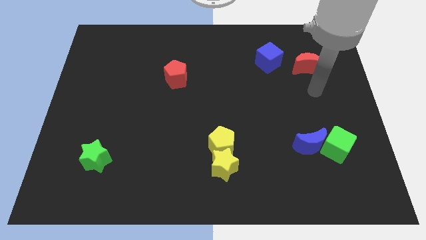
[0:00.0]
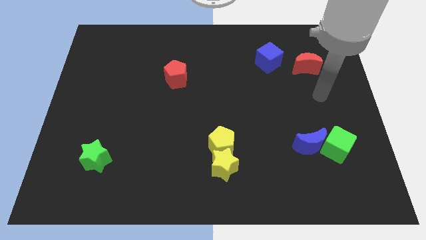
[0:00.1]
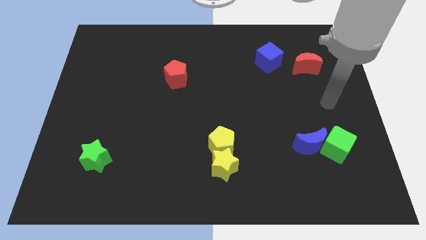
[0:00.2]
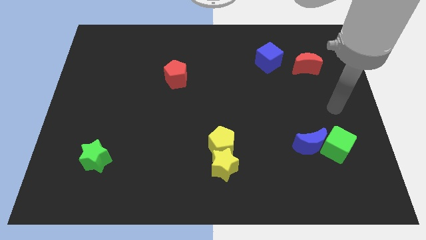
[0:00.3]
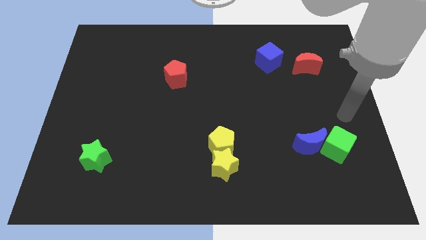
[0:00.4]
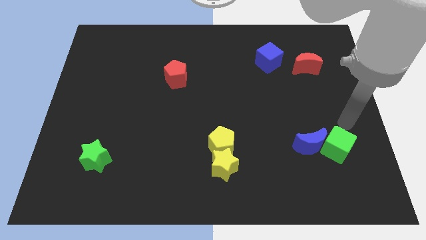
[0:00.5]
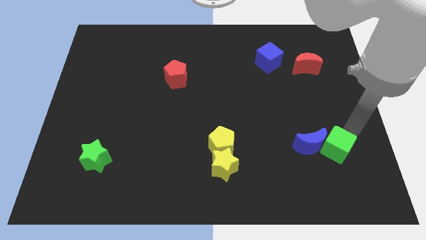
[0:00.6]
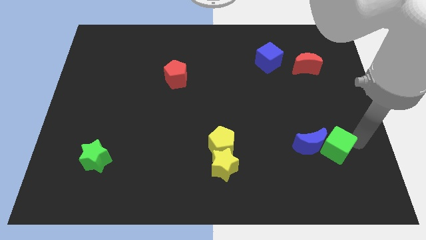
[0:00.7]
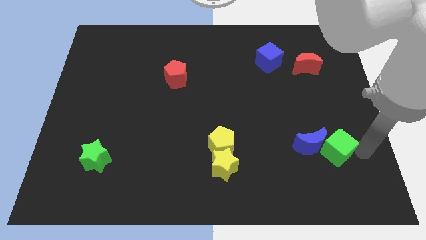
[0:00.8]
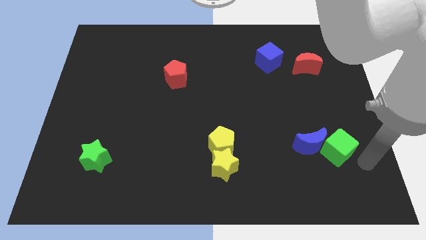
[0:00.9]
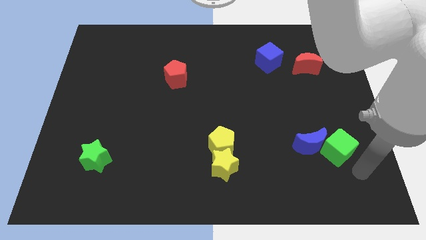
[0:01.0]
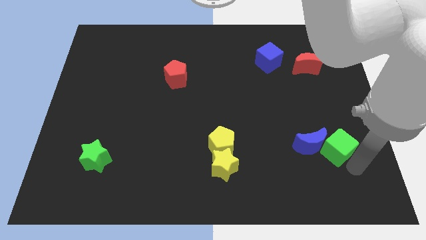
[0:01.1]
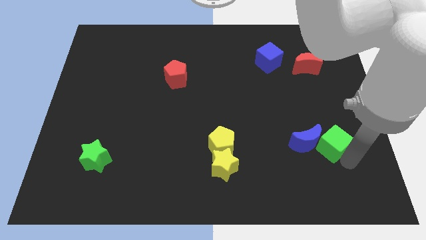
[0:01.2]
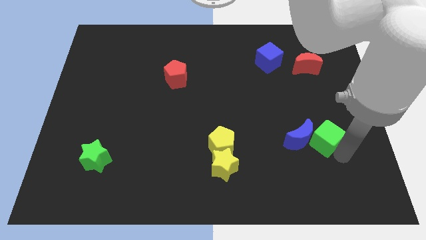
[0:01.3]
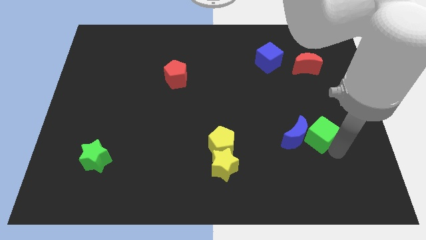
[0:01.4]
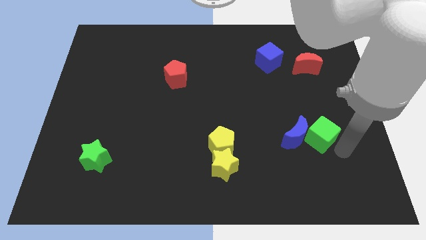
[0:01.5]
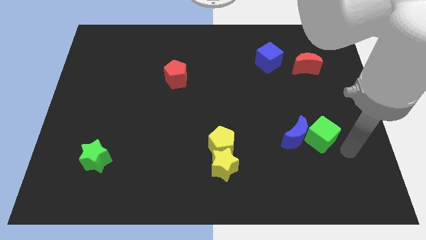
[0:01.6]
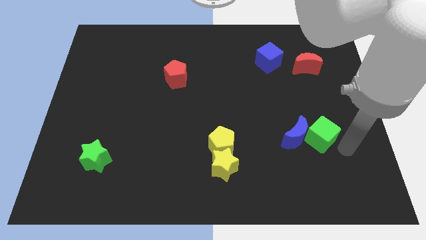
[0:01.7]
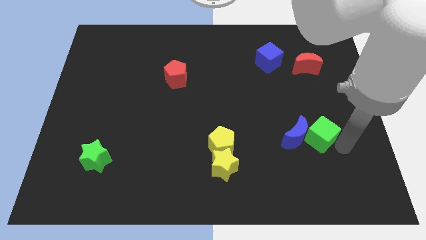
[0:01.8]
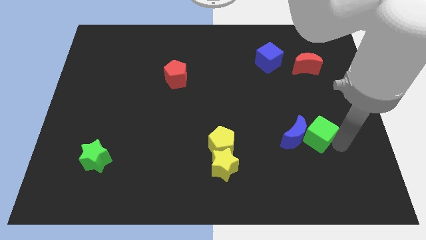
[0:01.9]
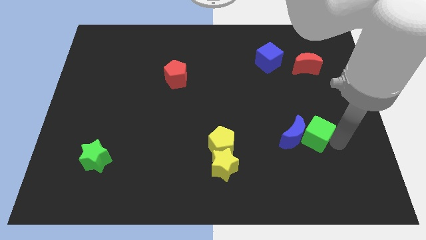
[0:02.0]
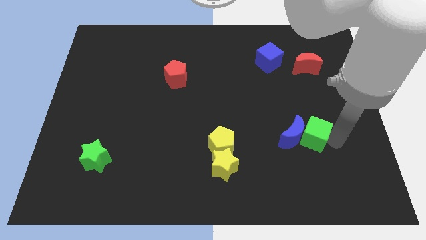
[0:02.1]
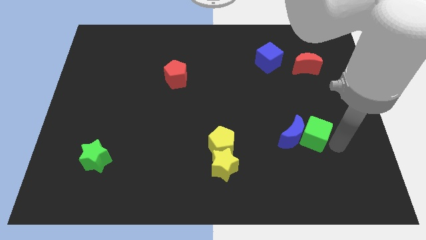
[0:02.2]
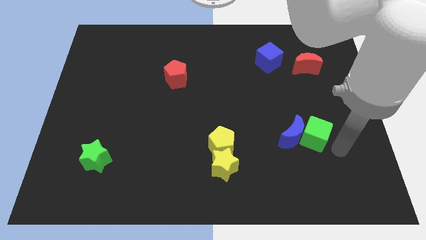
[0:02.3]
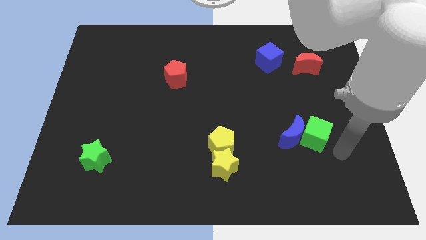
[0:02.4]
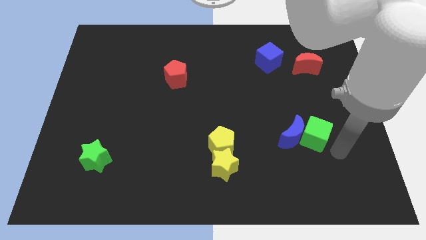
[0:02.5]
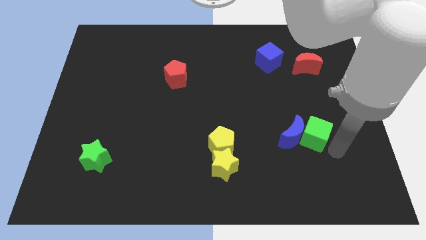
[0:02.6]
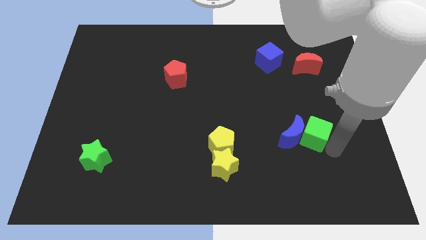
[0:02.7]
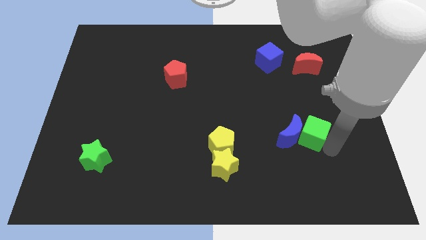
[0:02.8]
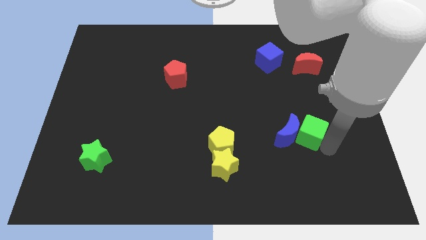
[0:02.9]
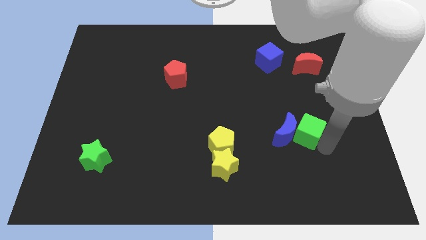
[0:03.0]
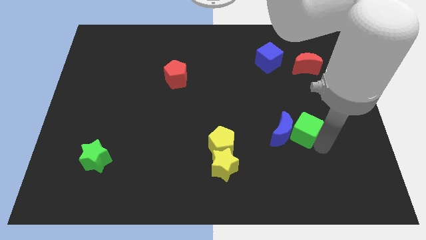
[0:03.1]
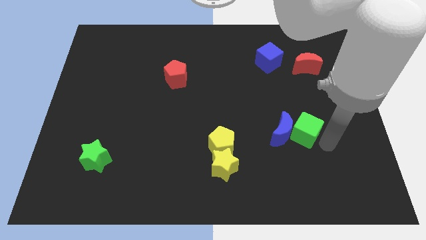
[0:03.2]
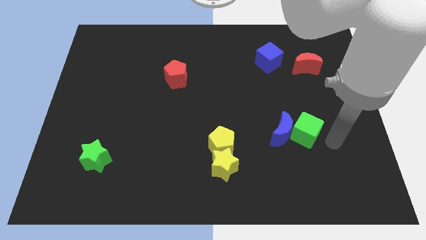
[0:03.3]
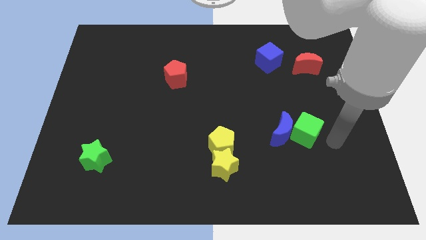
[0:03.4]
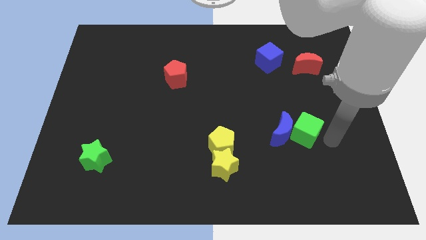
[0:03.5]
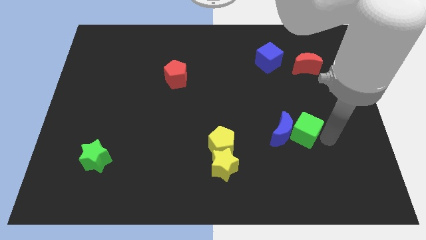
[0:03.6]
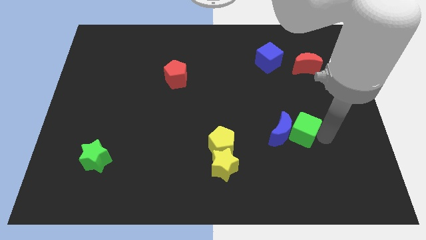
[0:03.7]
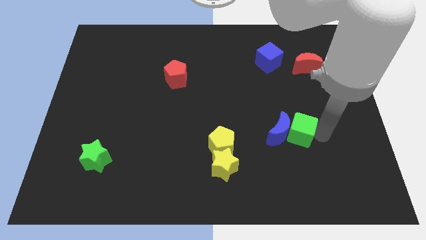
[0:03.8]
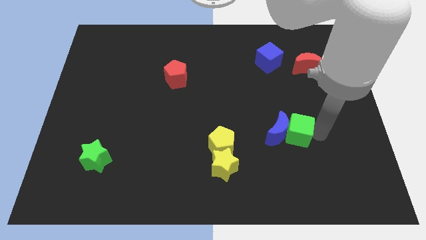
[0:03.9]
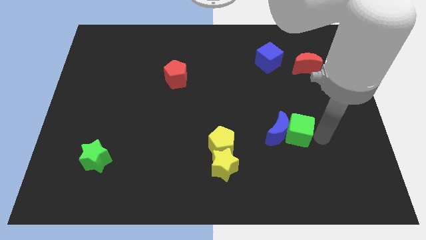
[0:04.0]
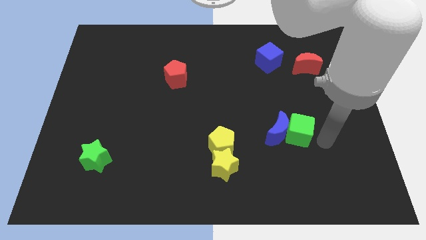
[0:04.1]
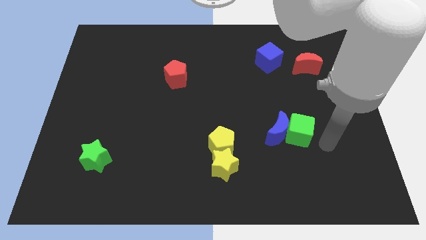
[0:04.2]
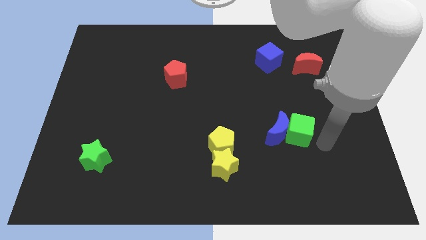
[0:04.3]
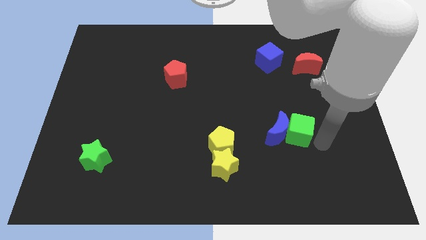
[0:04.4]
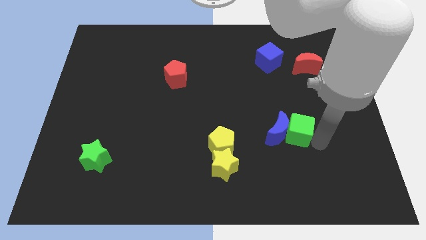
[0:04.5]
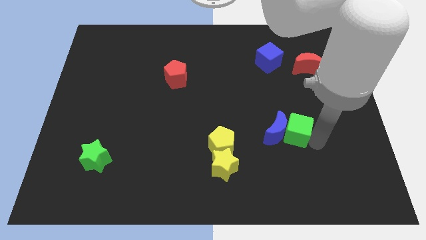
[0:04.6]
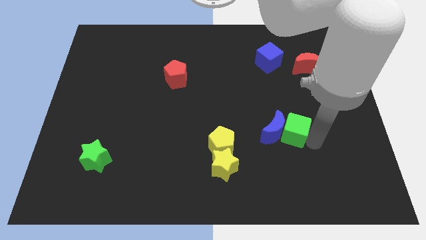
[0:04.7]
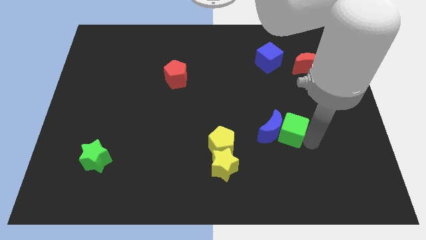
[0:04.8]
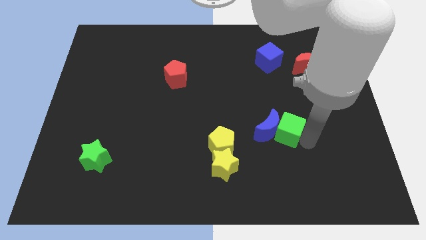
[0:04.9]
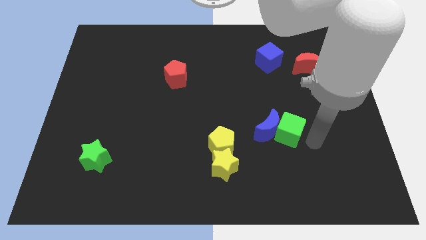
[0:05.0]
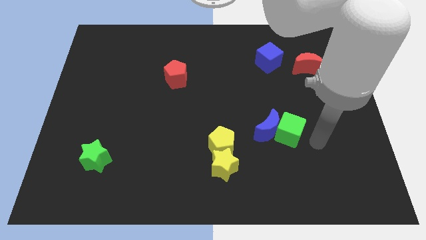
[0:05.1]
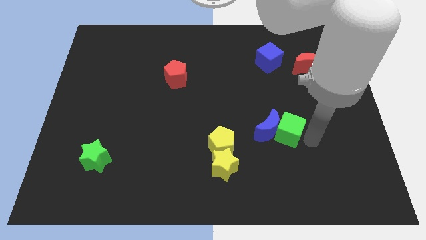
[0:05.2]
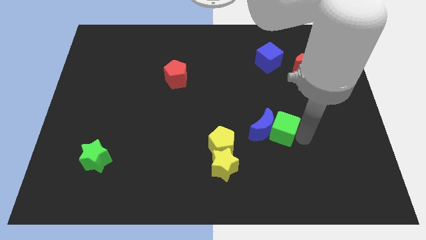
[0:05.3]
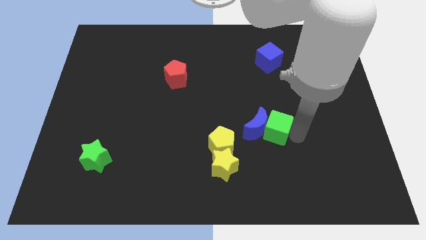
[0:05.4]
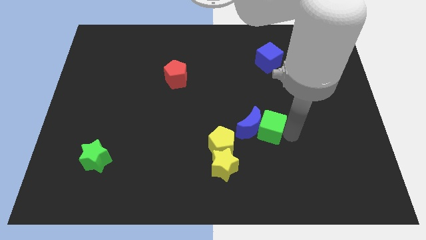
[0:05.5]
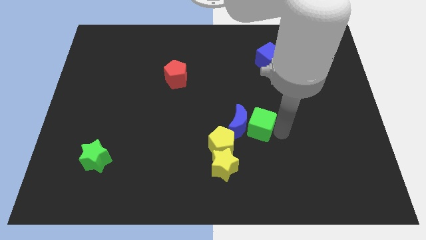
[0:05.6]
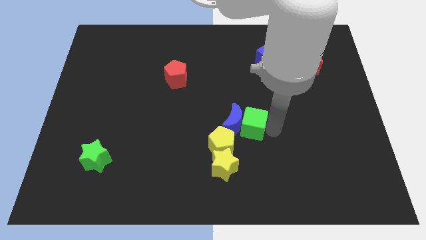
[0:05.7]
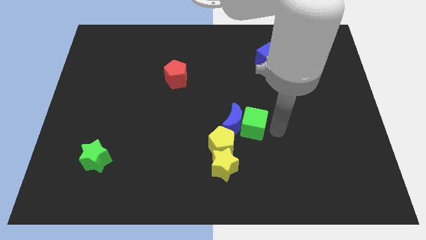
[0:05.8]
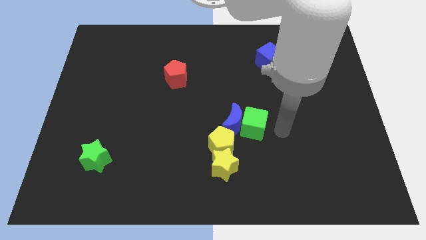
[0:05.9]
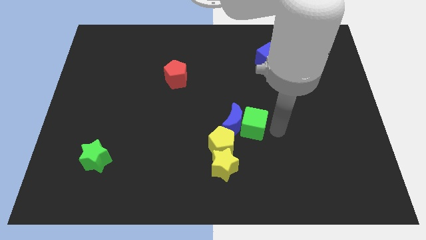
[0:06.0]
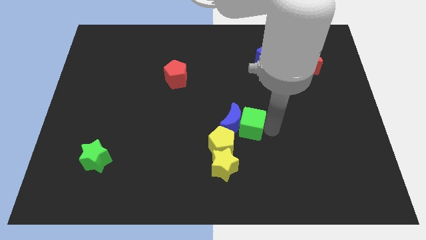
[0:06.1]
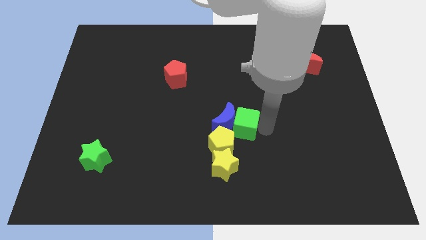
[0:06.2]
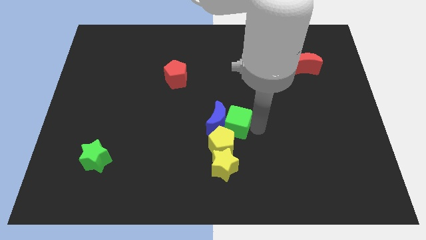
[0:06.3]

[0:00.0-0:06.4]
push the green cube left

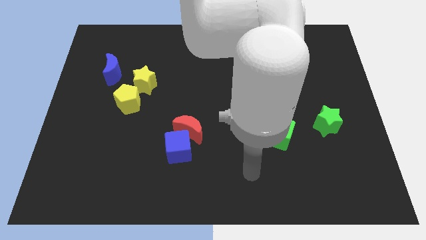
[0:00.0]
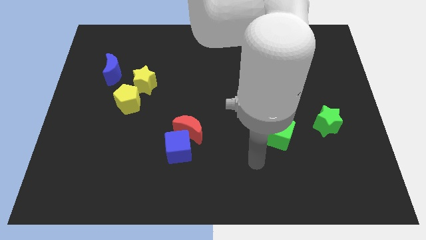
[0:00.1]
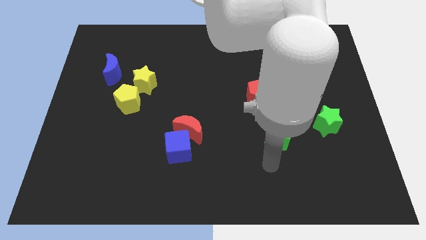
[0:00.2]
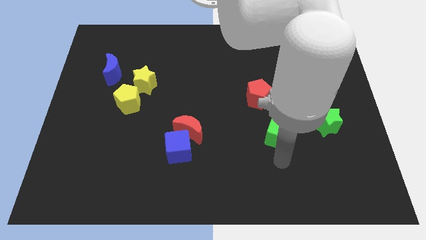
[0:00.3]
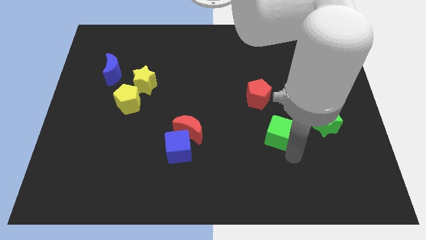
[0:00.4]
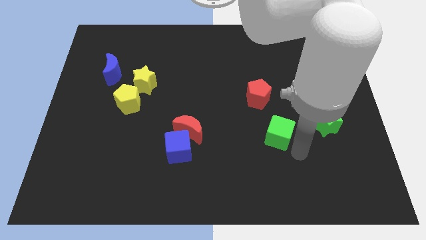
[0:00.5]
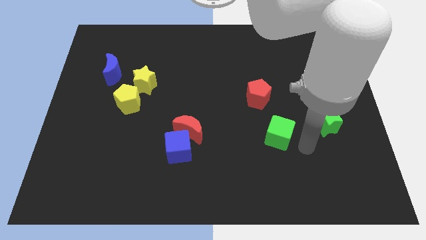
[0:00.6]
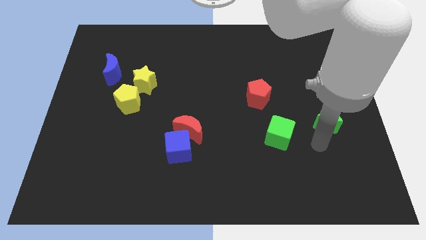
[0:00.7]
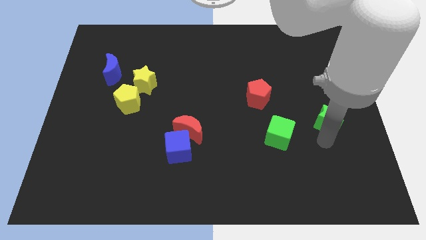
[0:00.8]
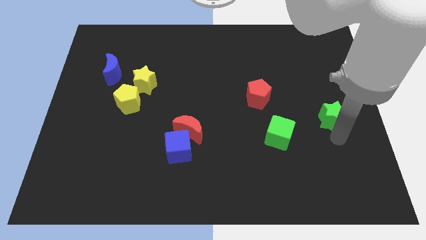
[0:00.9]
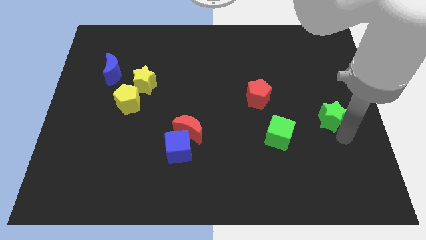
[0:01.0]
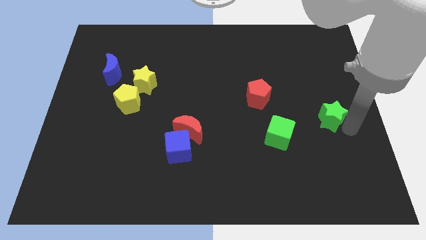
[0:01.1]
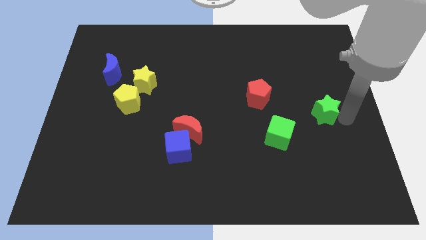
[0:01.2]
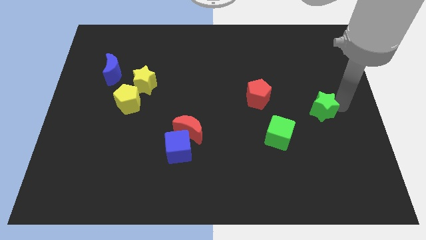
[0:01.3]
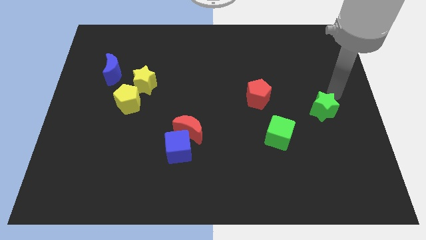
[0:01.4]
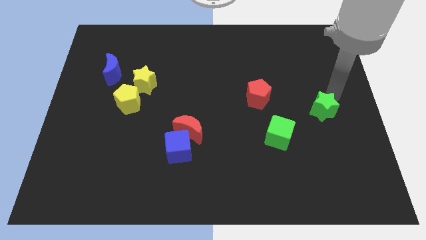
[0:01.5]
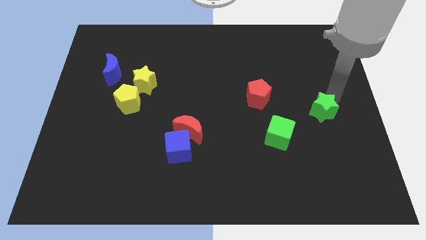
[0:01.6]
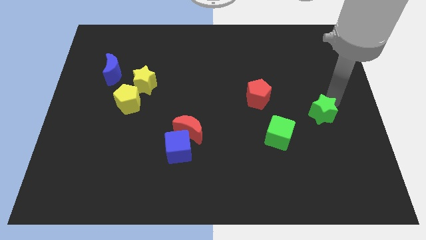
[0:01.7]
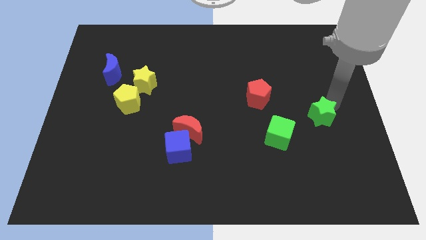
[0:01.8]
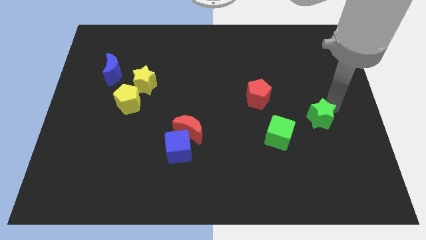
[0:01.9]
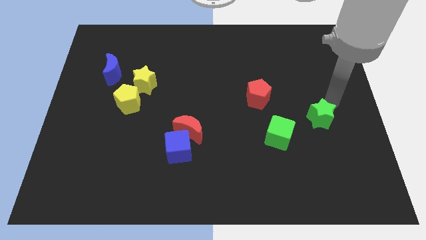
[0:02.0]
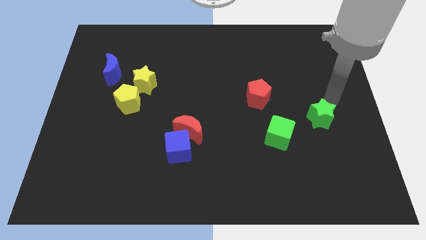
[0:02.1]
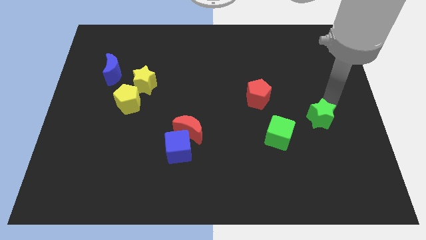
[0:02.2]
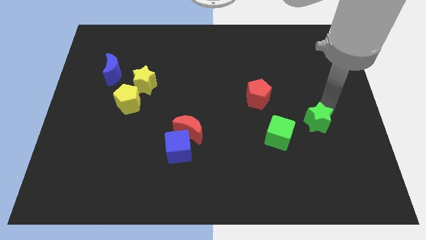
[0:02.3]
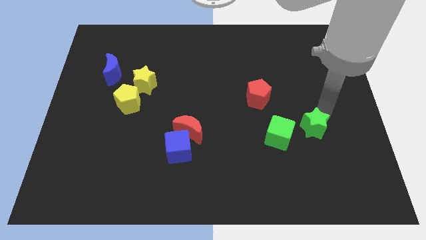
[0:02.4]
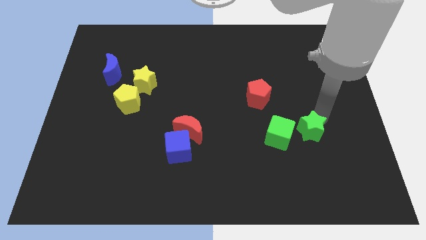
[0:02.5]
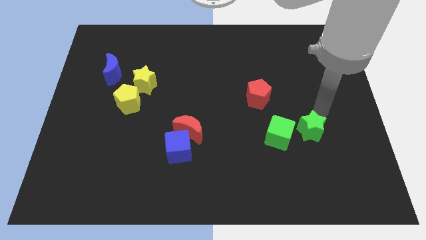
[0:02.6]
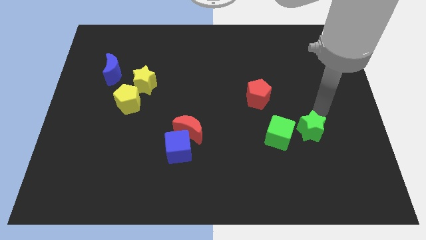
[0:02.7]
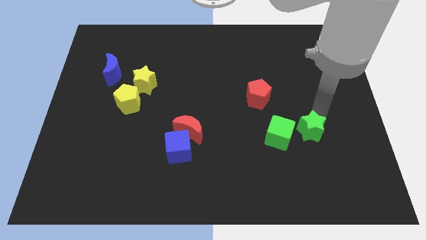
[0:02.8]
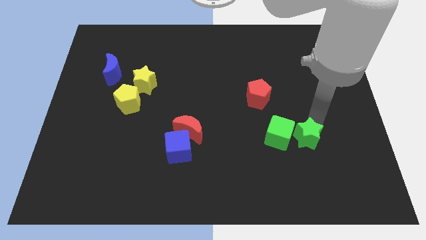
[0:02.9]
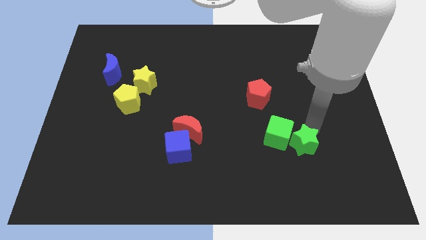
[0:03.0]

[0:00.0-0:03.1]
move the green star down and then left a little
